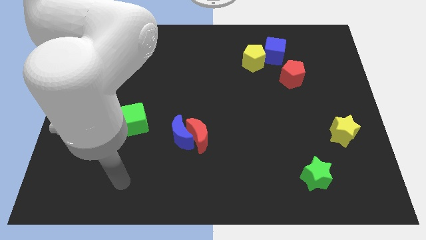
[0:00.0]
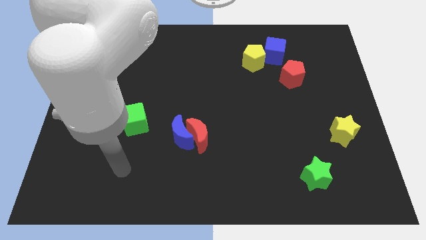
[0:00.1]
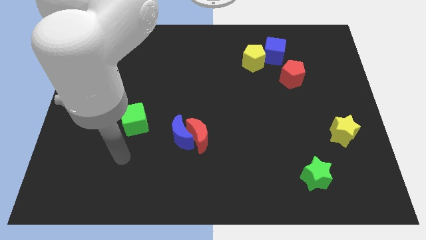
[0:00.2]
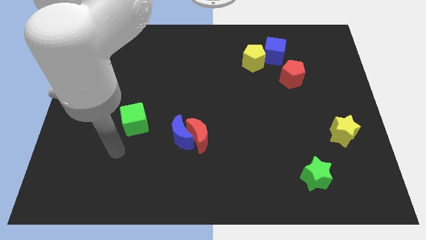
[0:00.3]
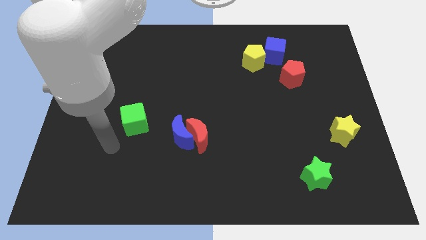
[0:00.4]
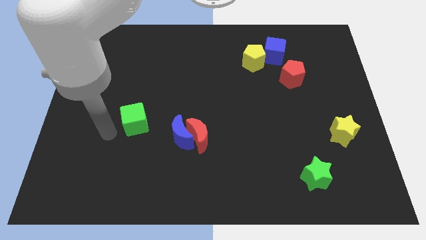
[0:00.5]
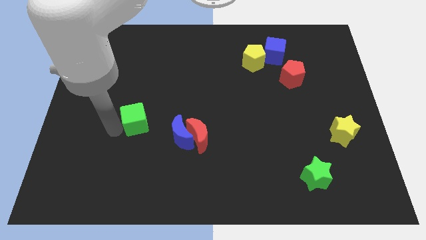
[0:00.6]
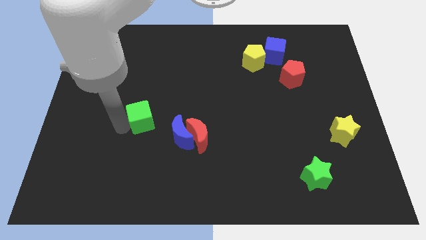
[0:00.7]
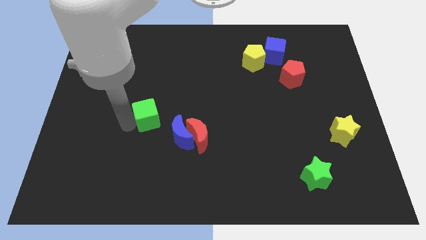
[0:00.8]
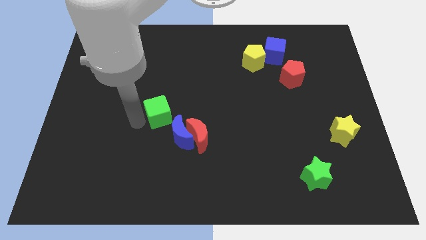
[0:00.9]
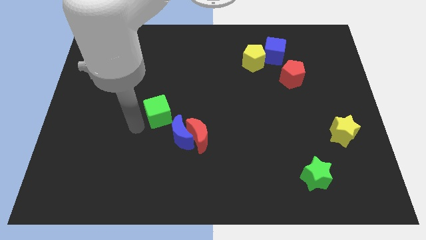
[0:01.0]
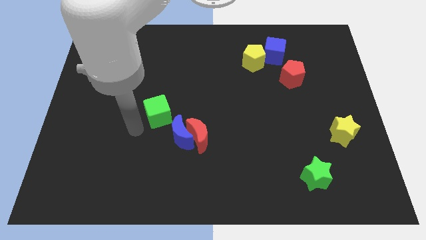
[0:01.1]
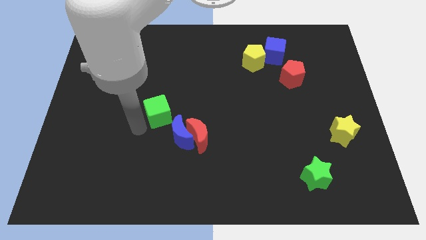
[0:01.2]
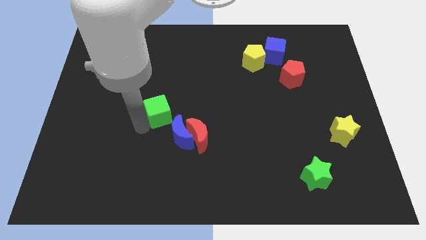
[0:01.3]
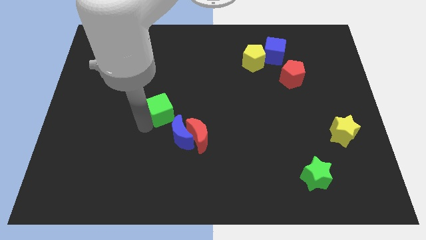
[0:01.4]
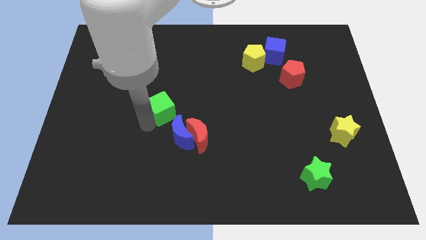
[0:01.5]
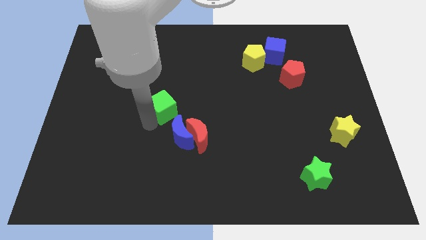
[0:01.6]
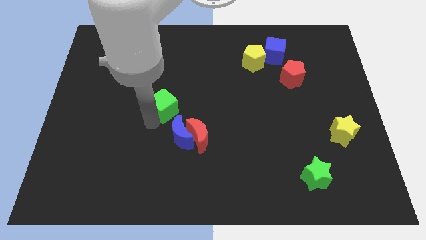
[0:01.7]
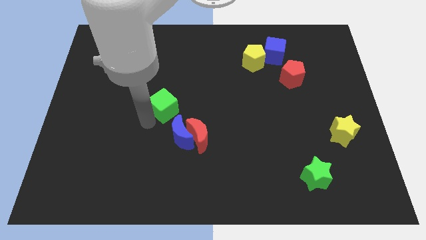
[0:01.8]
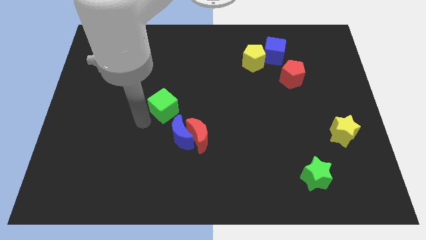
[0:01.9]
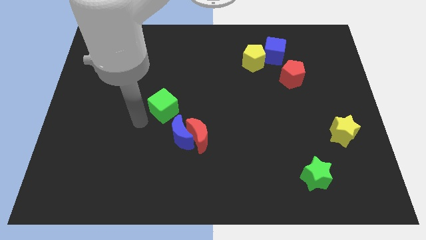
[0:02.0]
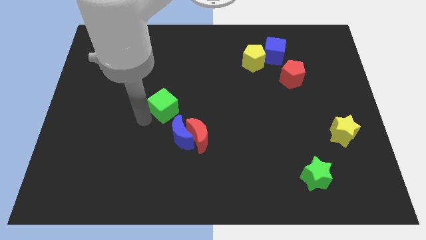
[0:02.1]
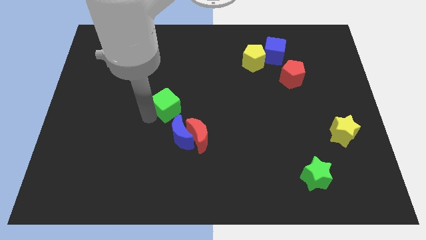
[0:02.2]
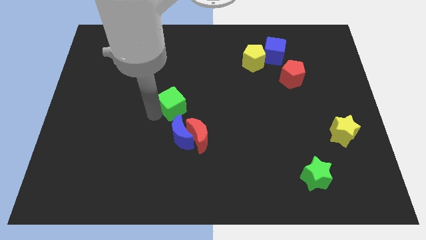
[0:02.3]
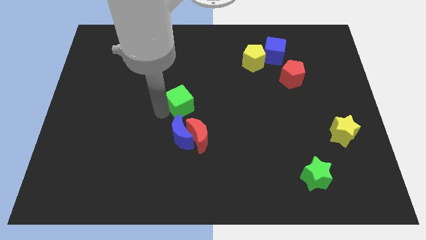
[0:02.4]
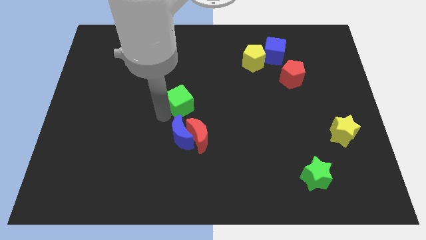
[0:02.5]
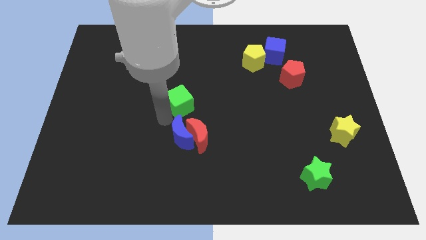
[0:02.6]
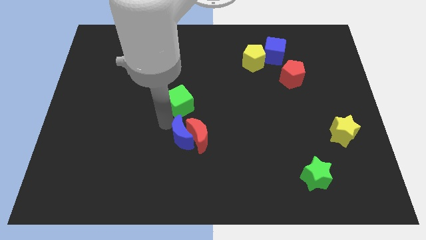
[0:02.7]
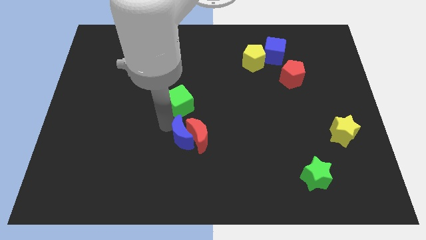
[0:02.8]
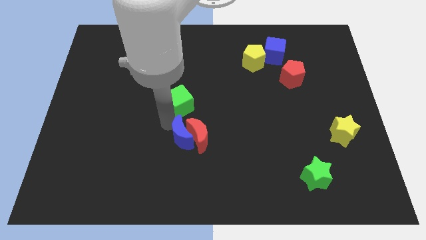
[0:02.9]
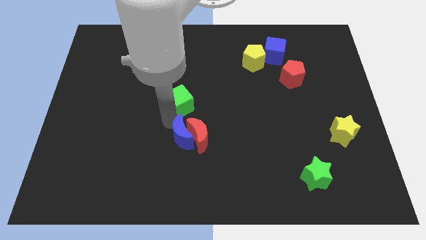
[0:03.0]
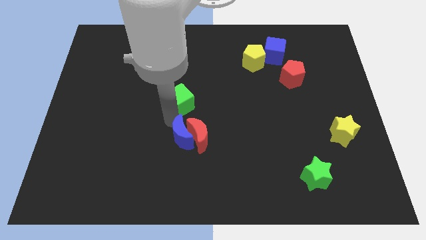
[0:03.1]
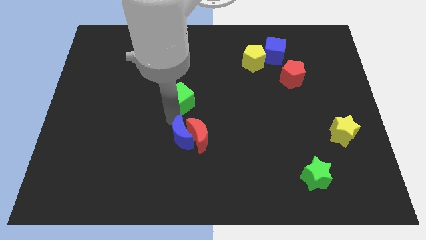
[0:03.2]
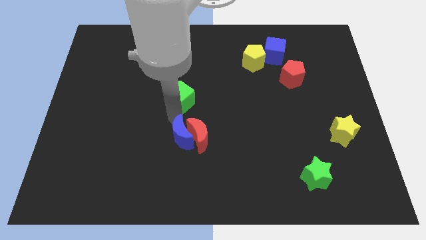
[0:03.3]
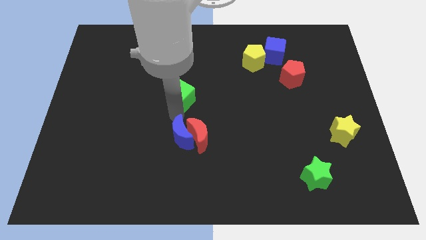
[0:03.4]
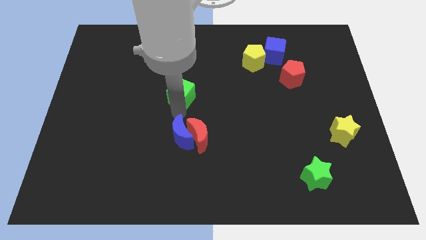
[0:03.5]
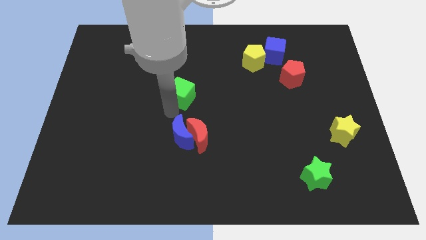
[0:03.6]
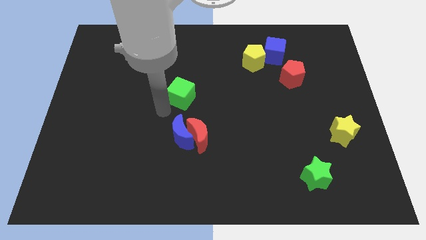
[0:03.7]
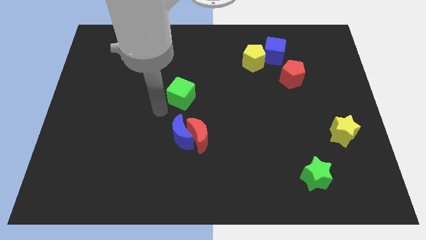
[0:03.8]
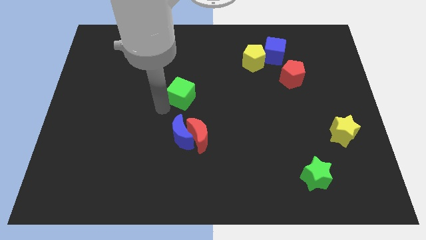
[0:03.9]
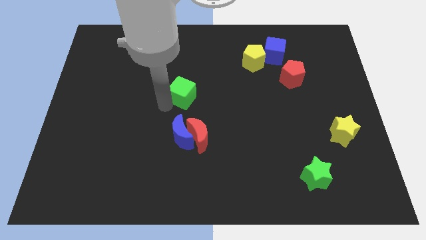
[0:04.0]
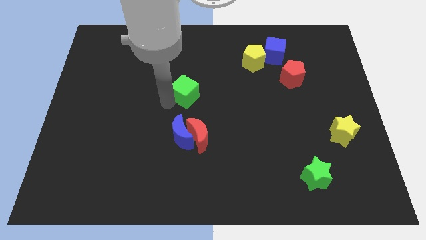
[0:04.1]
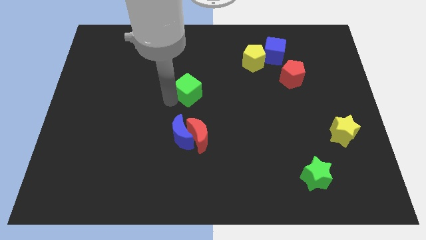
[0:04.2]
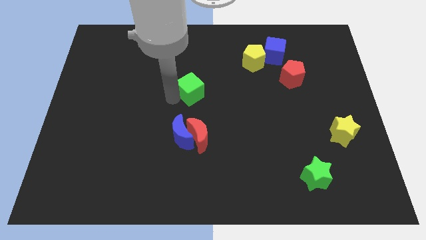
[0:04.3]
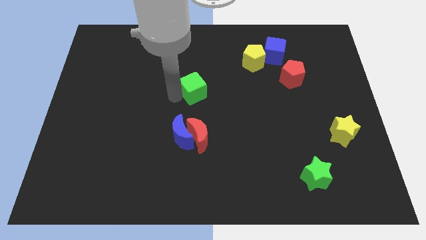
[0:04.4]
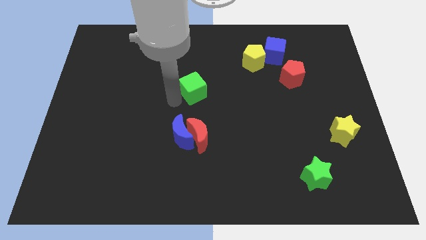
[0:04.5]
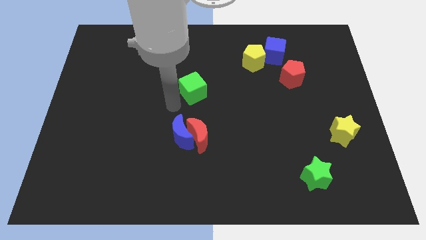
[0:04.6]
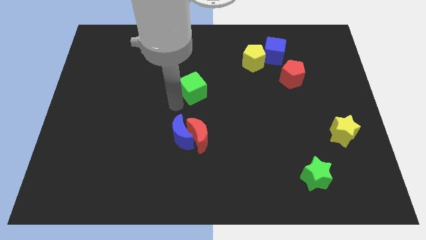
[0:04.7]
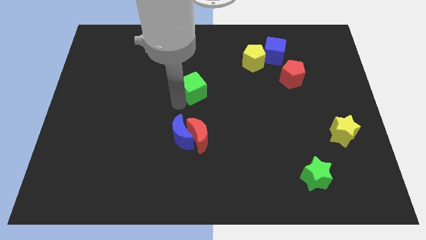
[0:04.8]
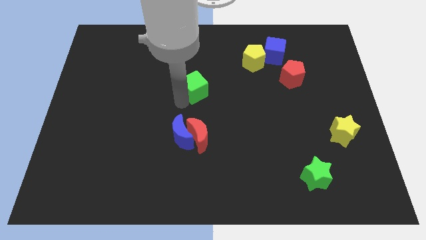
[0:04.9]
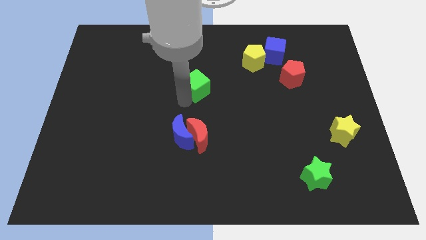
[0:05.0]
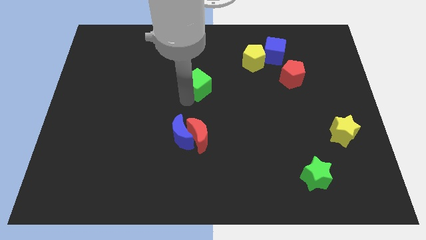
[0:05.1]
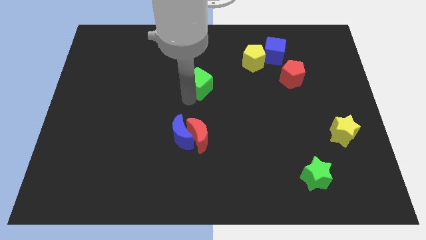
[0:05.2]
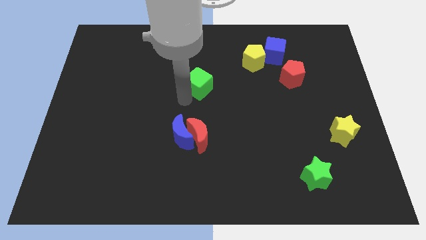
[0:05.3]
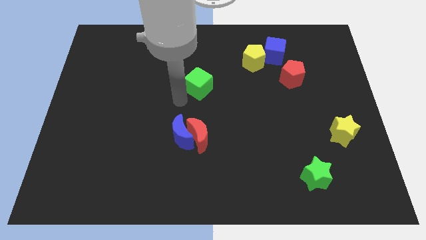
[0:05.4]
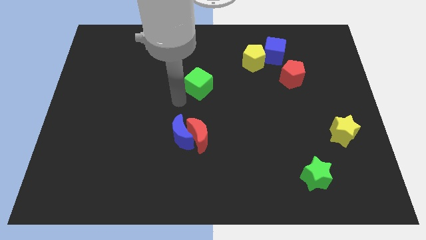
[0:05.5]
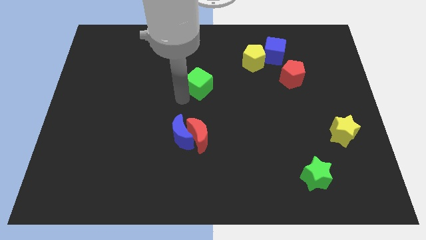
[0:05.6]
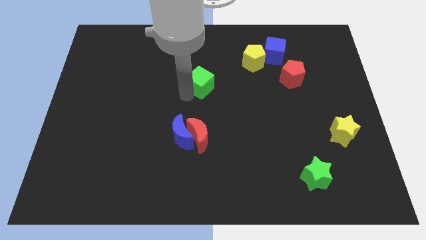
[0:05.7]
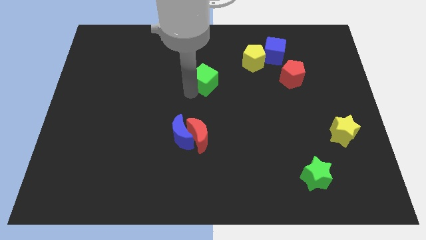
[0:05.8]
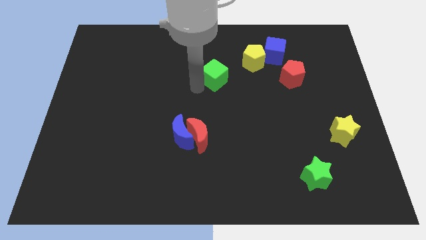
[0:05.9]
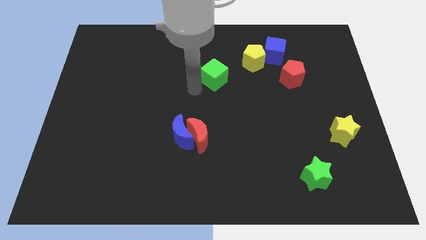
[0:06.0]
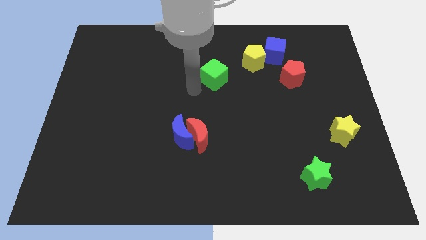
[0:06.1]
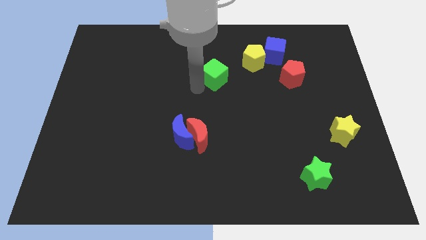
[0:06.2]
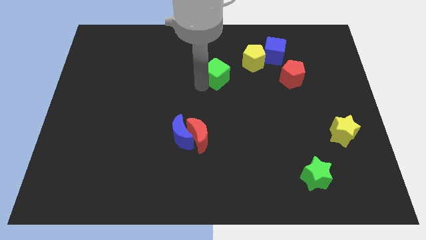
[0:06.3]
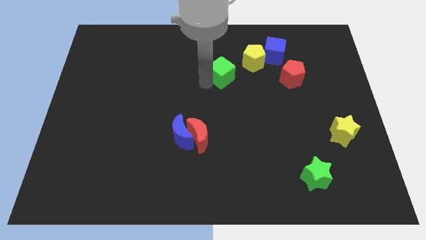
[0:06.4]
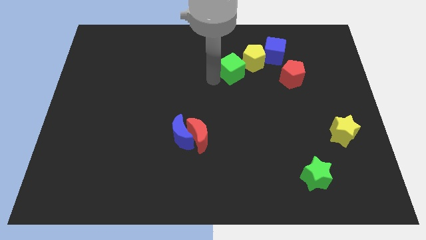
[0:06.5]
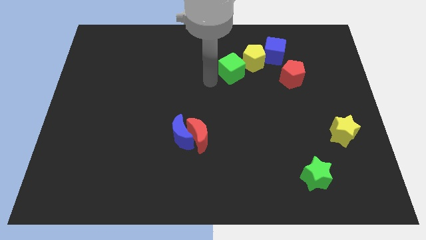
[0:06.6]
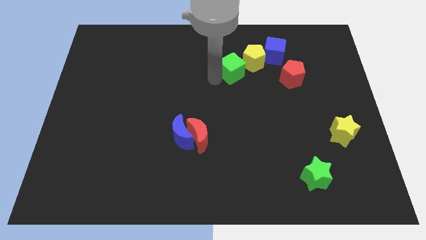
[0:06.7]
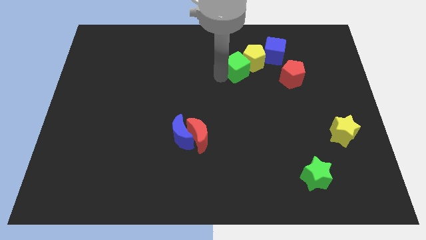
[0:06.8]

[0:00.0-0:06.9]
push the green cube next to the yellow pentagon
